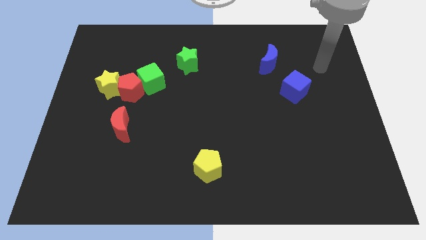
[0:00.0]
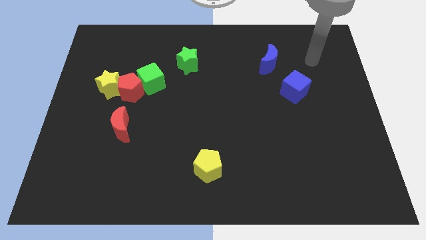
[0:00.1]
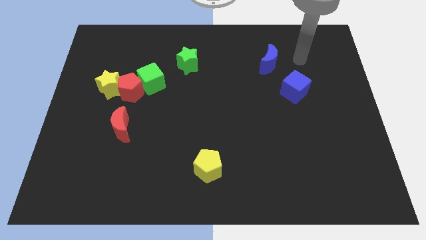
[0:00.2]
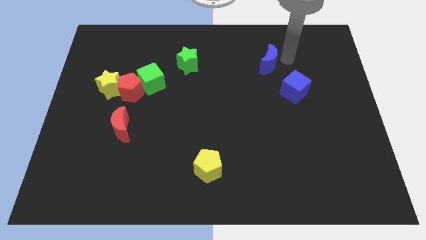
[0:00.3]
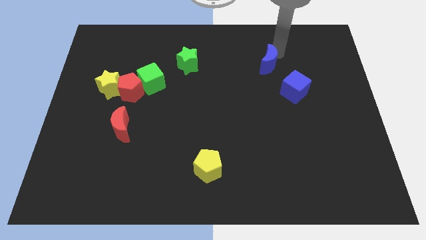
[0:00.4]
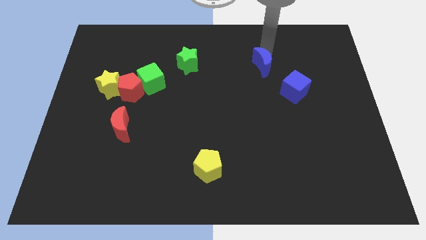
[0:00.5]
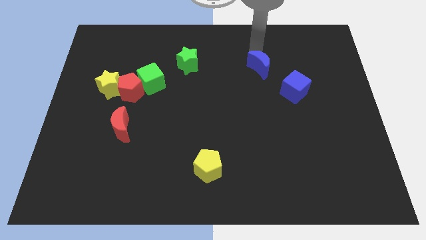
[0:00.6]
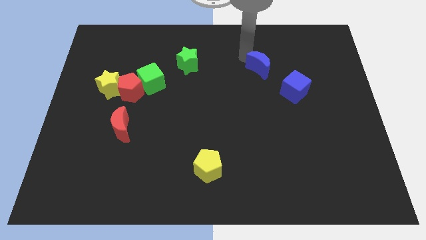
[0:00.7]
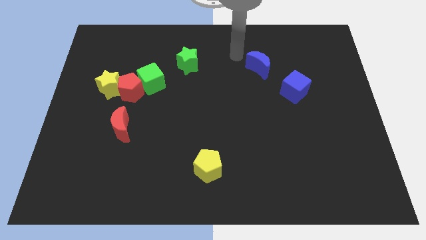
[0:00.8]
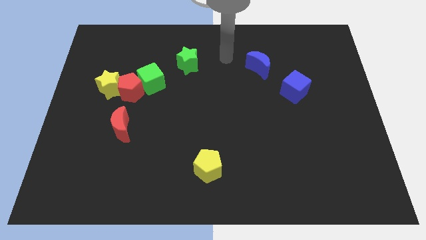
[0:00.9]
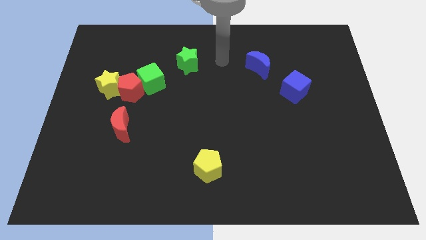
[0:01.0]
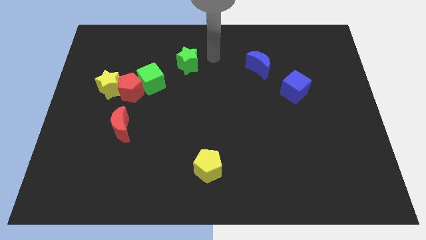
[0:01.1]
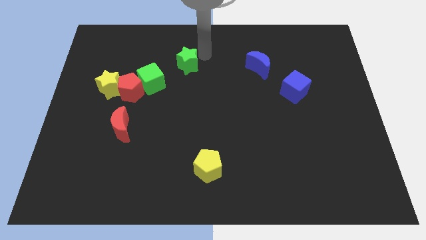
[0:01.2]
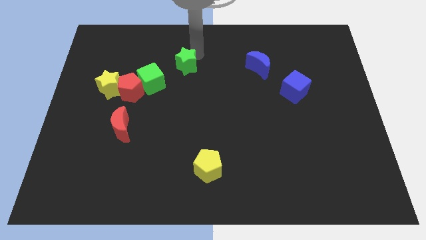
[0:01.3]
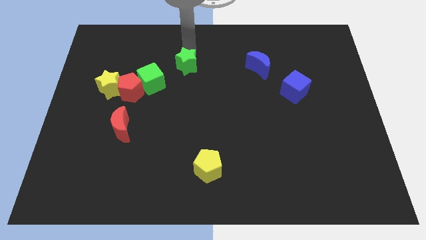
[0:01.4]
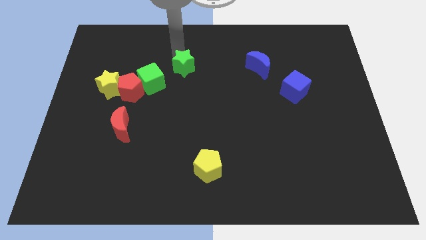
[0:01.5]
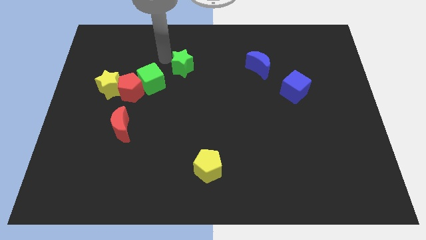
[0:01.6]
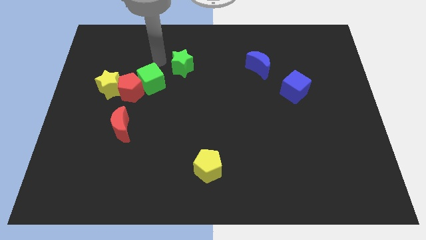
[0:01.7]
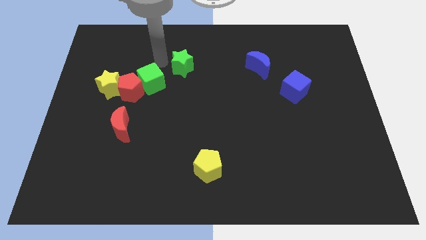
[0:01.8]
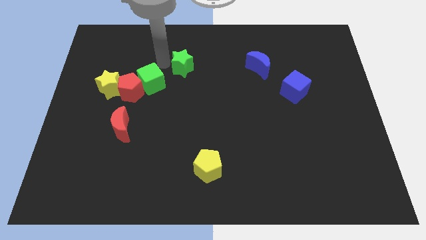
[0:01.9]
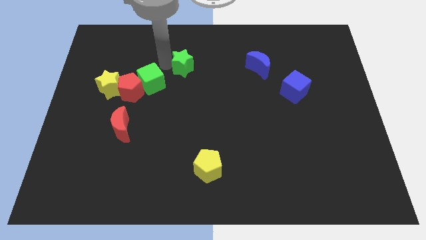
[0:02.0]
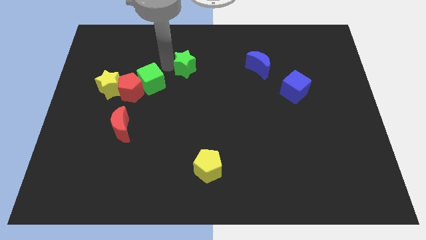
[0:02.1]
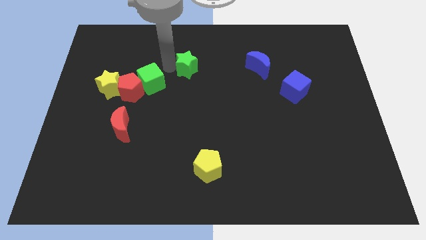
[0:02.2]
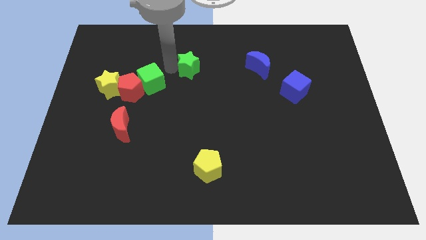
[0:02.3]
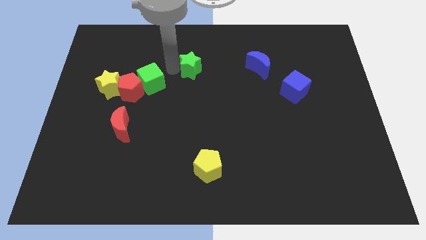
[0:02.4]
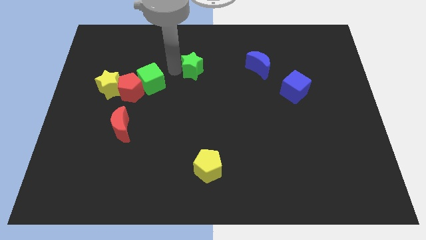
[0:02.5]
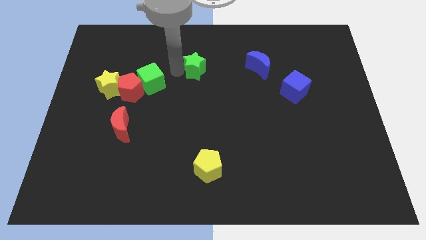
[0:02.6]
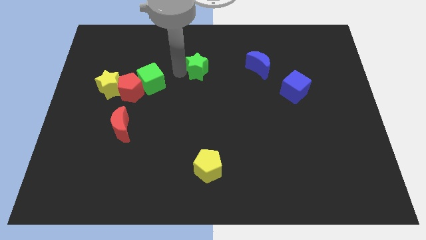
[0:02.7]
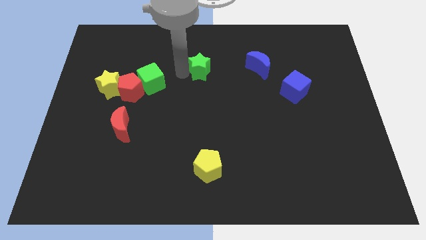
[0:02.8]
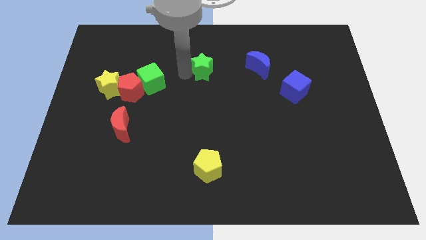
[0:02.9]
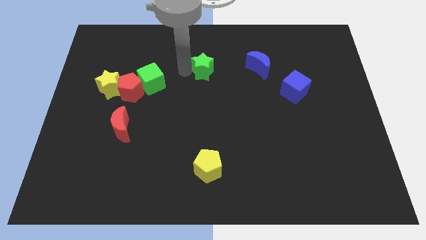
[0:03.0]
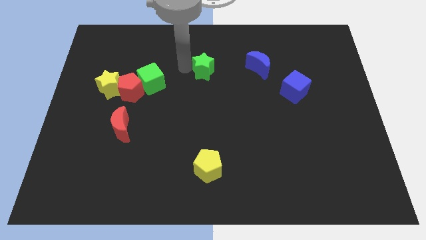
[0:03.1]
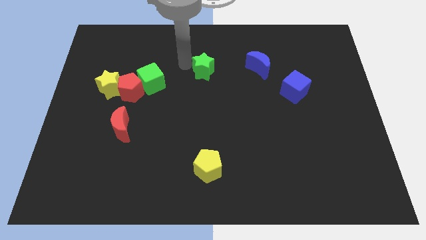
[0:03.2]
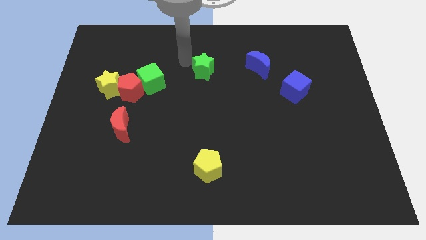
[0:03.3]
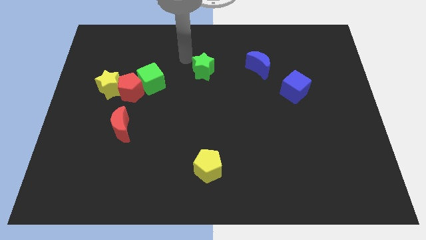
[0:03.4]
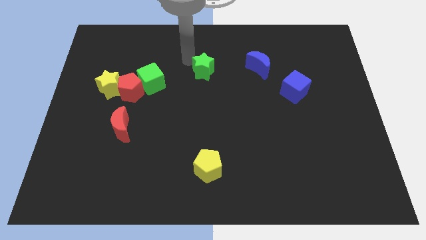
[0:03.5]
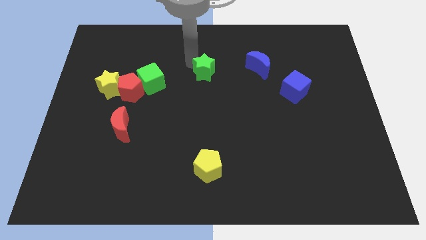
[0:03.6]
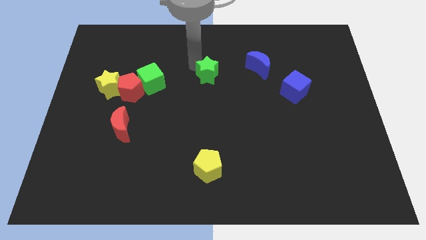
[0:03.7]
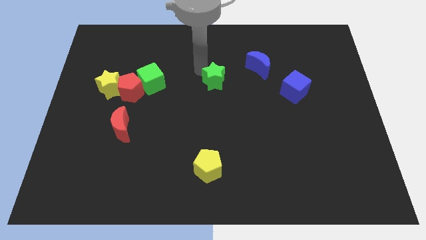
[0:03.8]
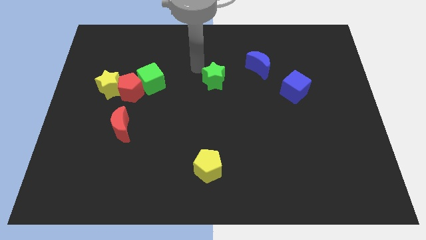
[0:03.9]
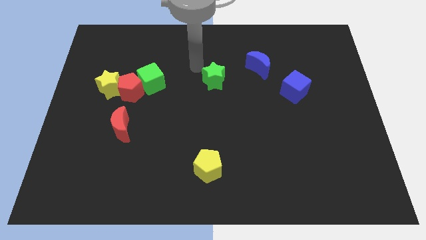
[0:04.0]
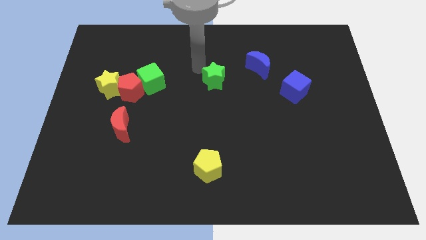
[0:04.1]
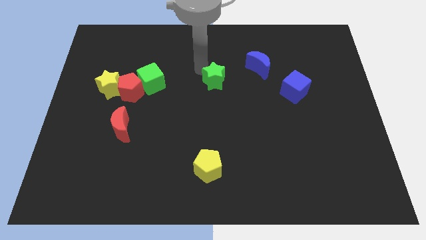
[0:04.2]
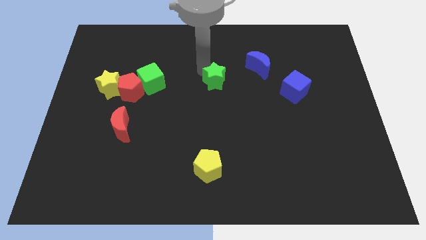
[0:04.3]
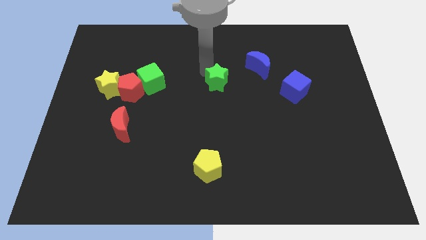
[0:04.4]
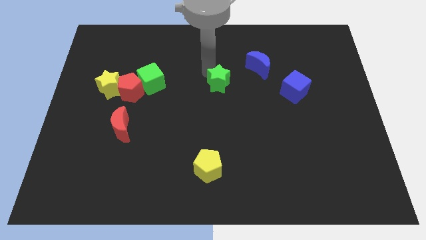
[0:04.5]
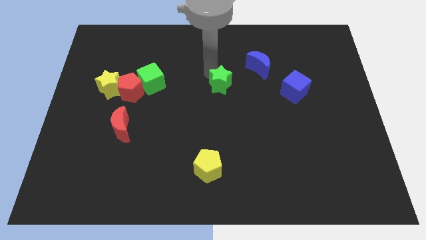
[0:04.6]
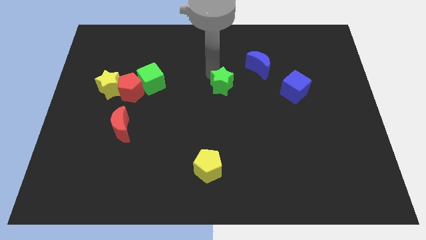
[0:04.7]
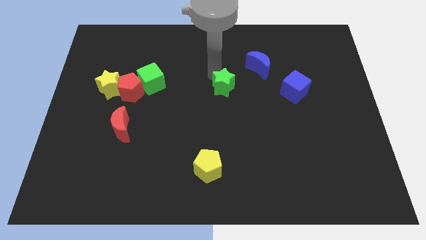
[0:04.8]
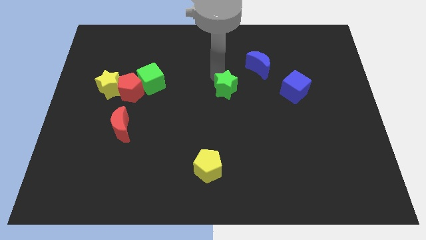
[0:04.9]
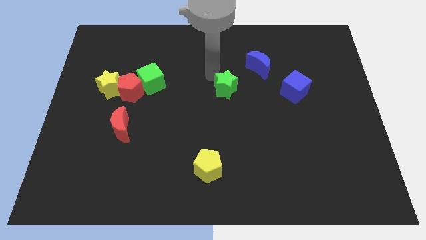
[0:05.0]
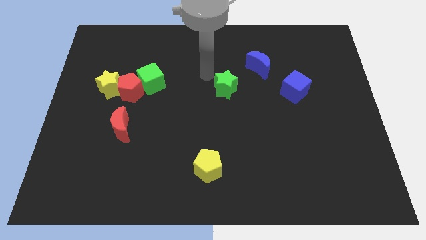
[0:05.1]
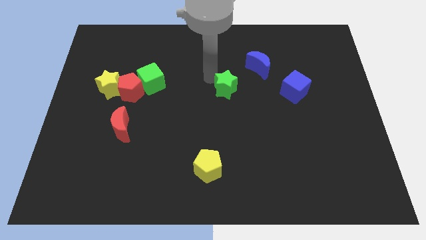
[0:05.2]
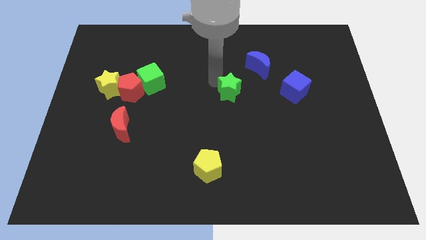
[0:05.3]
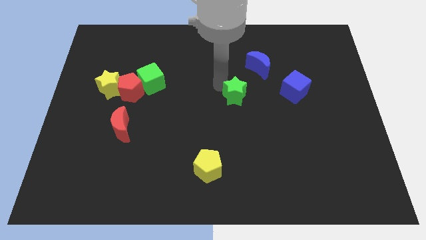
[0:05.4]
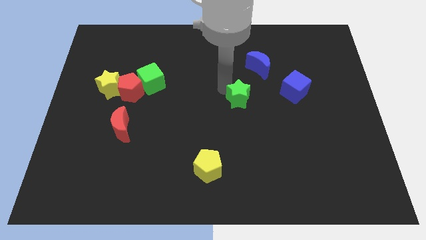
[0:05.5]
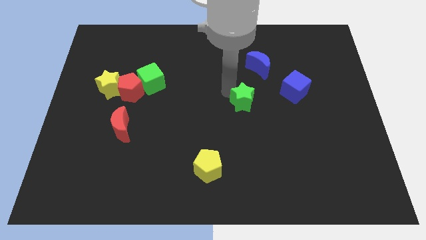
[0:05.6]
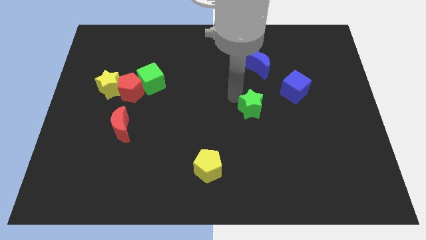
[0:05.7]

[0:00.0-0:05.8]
move the green star down and then right

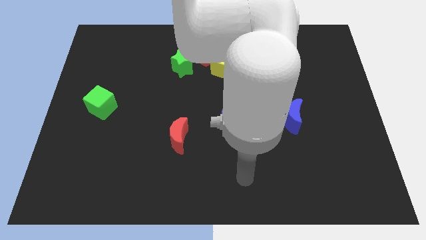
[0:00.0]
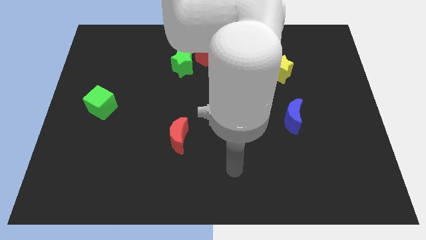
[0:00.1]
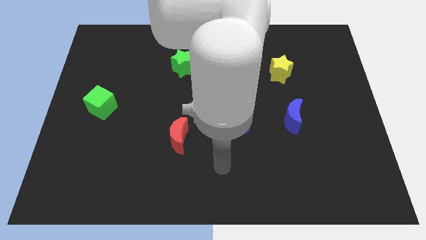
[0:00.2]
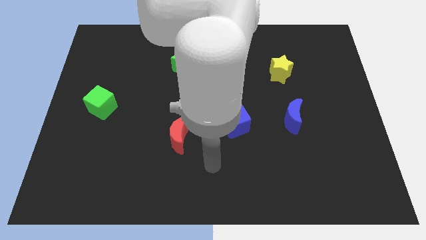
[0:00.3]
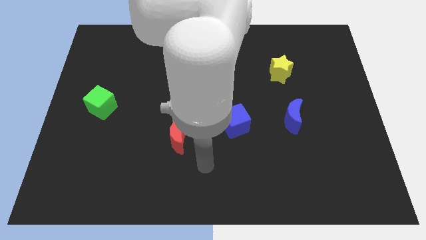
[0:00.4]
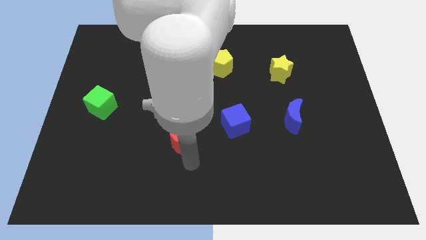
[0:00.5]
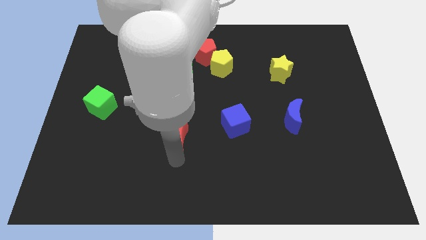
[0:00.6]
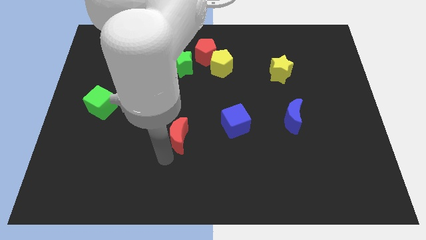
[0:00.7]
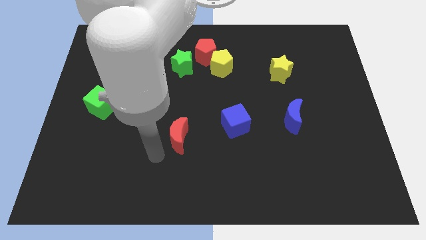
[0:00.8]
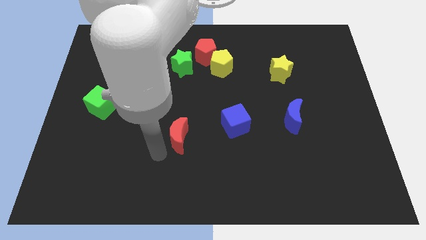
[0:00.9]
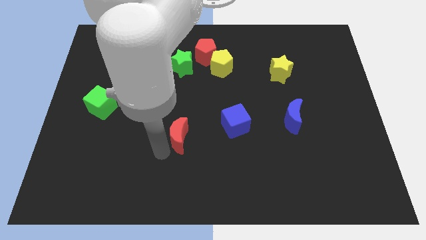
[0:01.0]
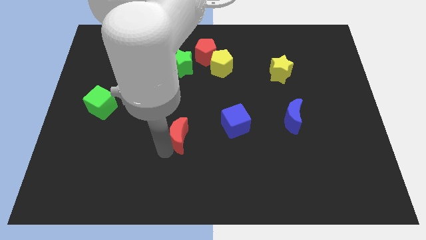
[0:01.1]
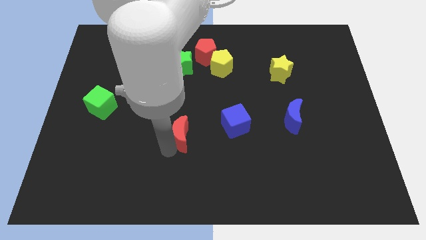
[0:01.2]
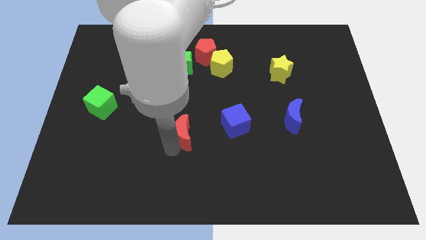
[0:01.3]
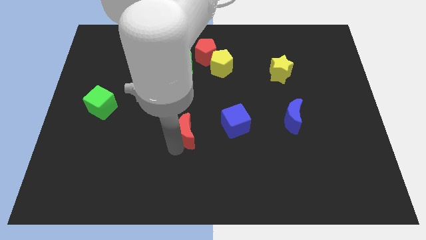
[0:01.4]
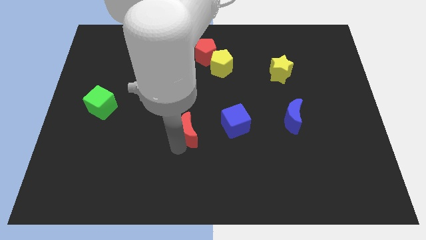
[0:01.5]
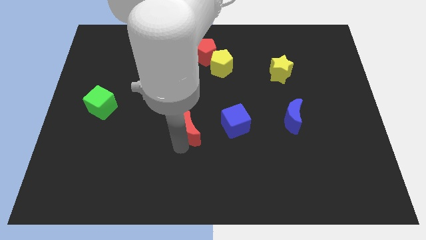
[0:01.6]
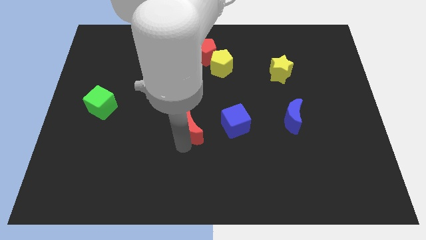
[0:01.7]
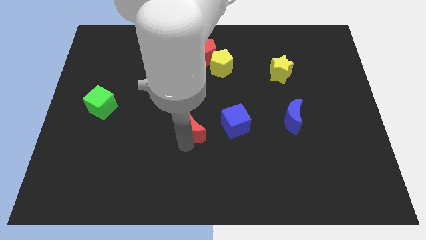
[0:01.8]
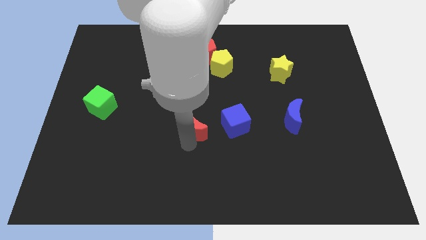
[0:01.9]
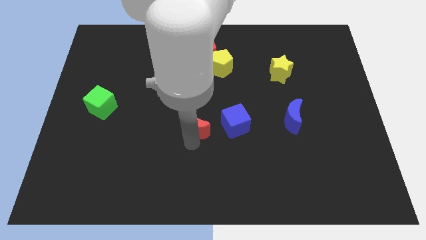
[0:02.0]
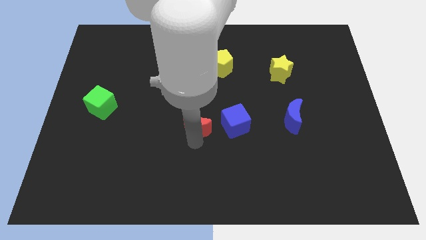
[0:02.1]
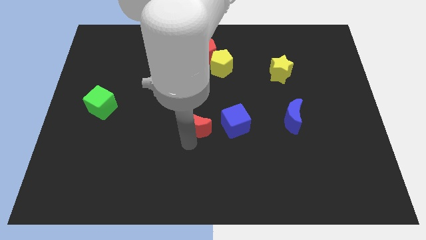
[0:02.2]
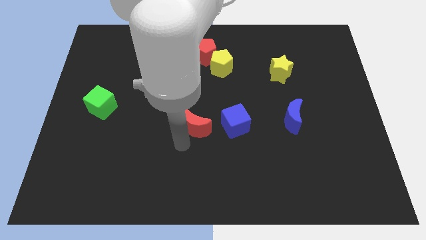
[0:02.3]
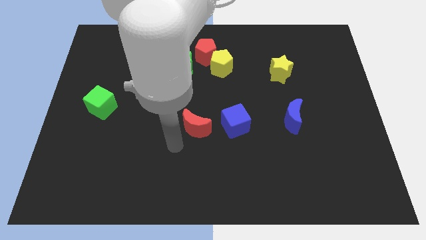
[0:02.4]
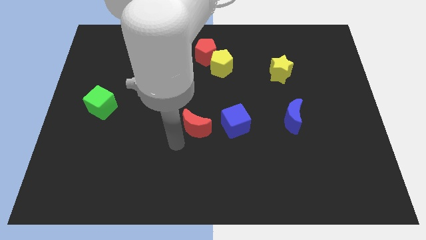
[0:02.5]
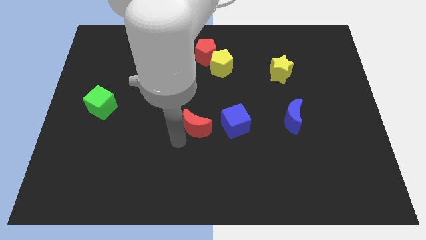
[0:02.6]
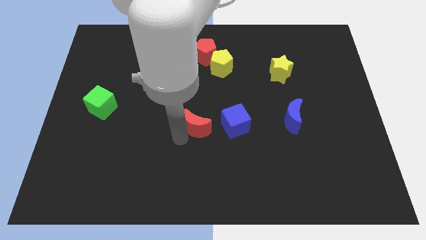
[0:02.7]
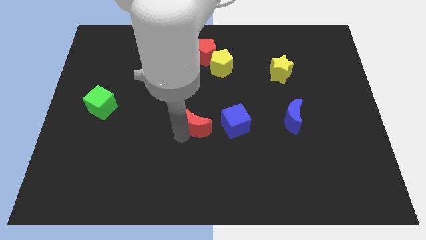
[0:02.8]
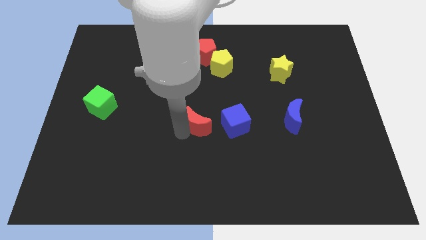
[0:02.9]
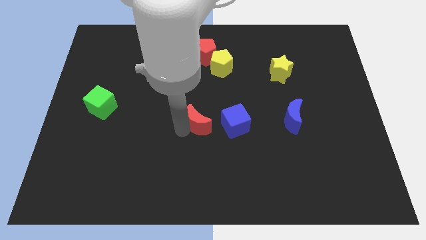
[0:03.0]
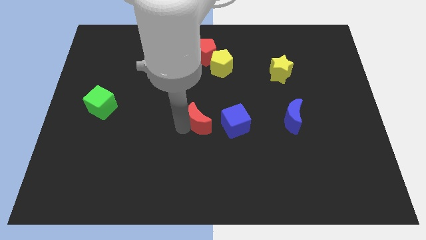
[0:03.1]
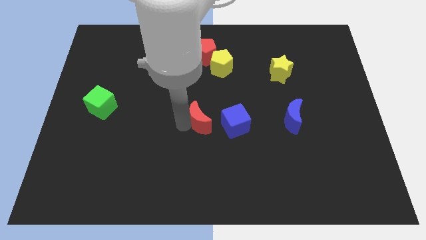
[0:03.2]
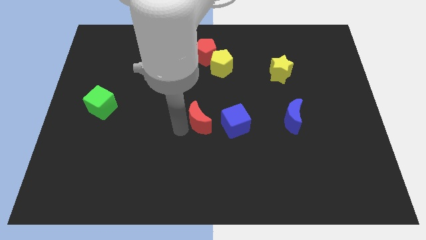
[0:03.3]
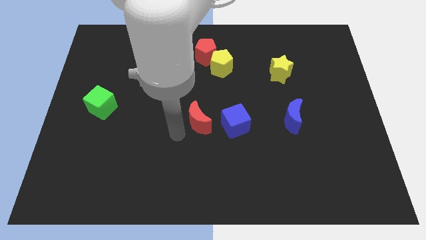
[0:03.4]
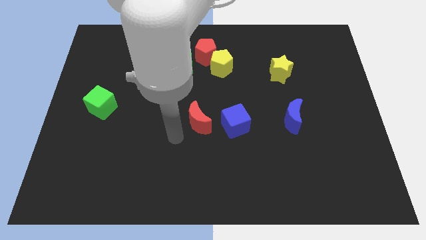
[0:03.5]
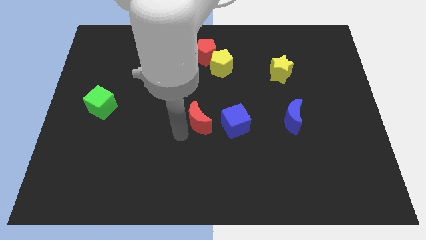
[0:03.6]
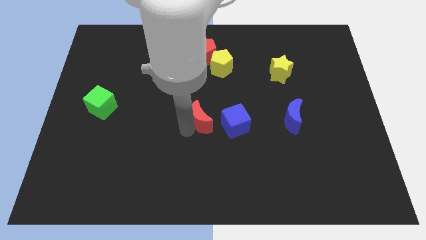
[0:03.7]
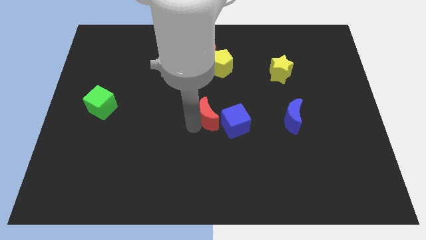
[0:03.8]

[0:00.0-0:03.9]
slightly move the red moon diagonally up and right
